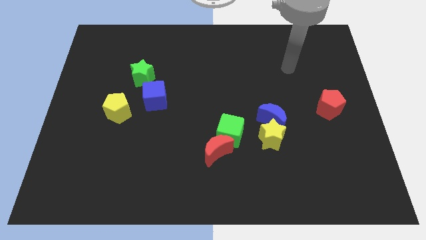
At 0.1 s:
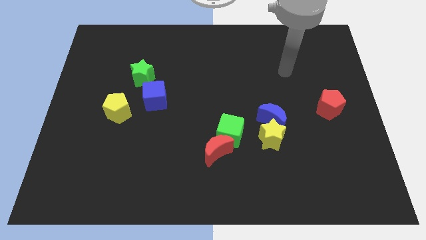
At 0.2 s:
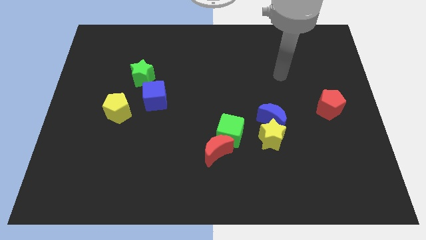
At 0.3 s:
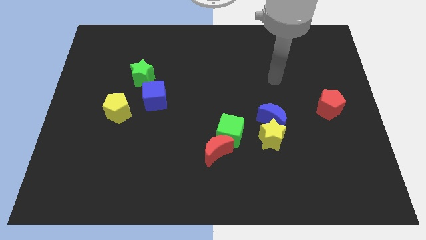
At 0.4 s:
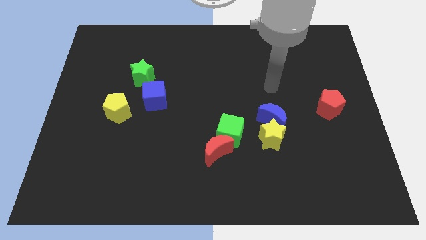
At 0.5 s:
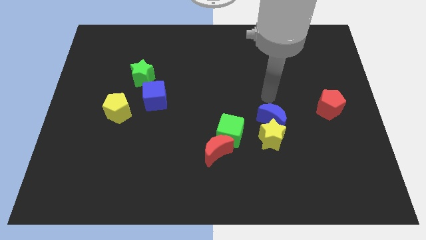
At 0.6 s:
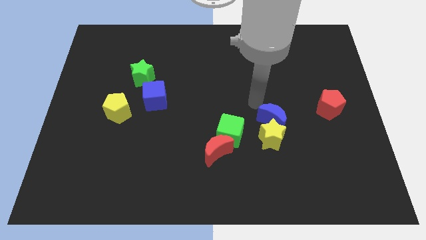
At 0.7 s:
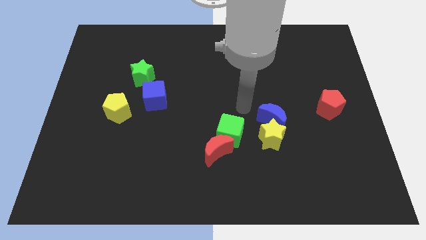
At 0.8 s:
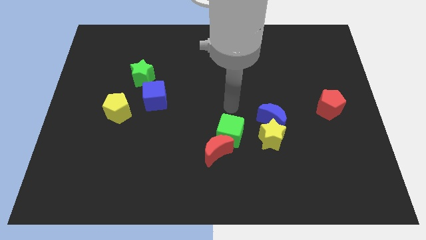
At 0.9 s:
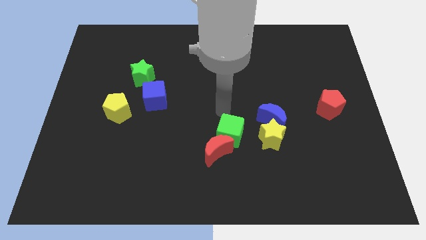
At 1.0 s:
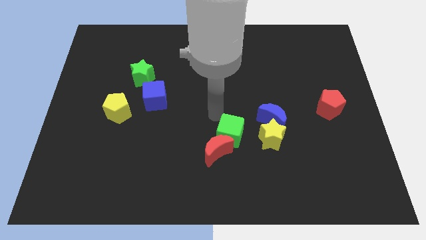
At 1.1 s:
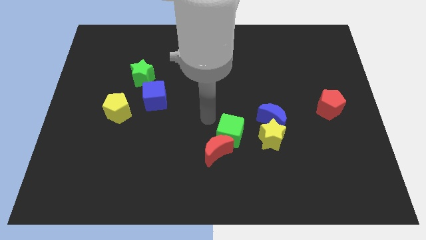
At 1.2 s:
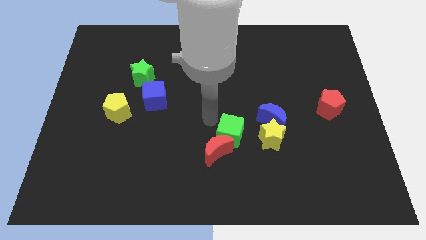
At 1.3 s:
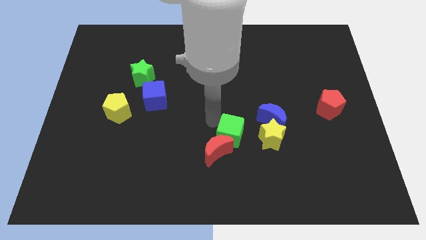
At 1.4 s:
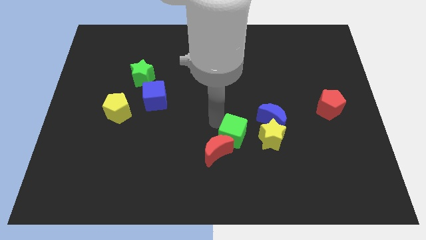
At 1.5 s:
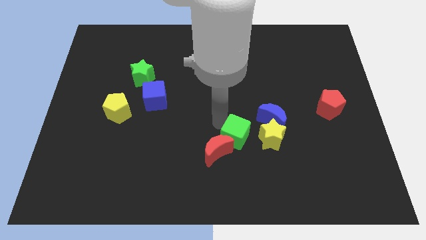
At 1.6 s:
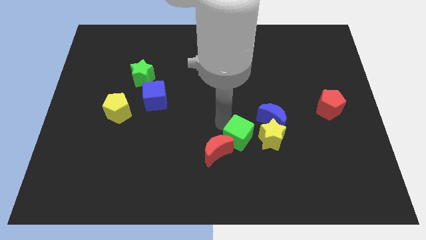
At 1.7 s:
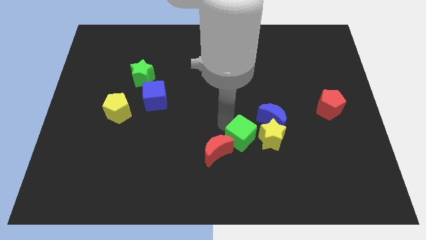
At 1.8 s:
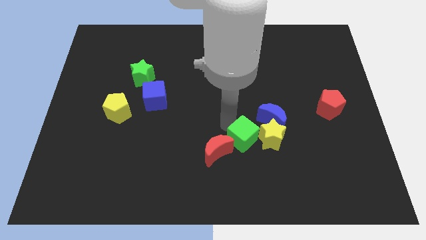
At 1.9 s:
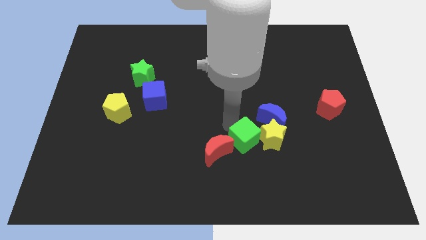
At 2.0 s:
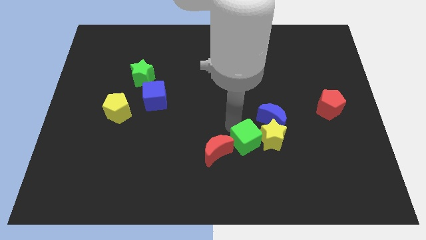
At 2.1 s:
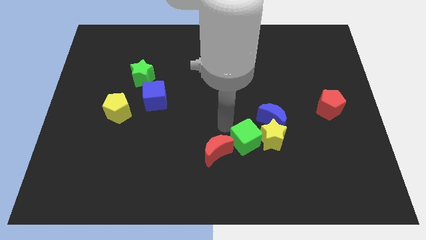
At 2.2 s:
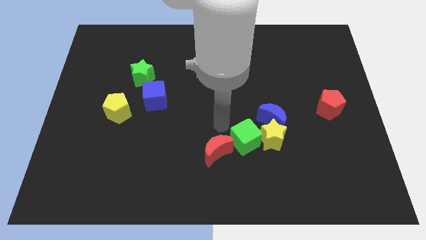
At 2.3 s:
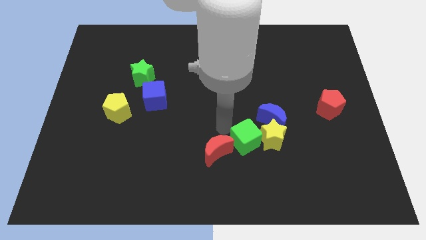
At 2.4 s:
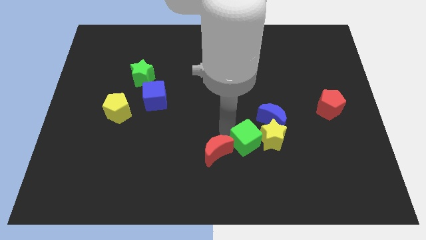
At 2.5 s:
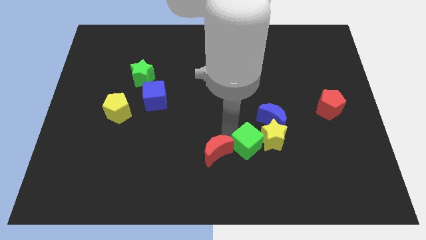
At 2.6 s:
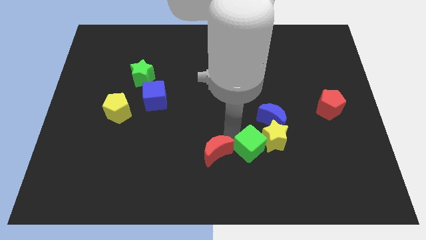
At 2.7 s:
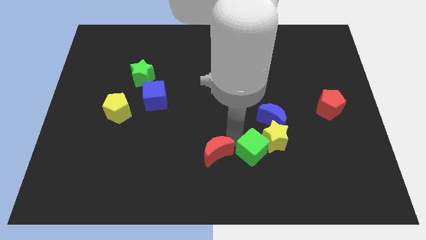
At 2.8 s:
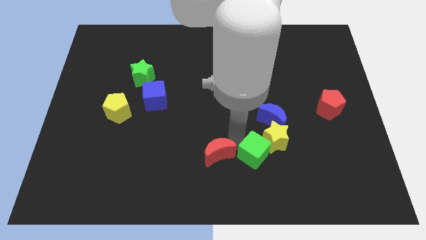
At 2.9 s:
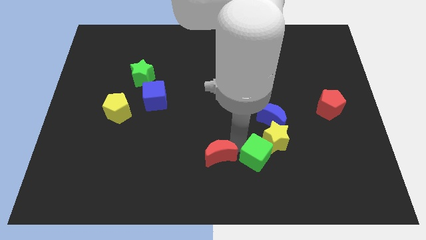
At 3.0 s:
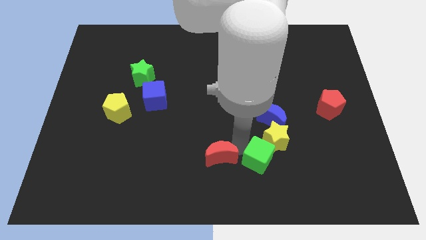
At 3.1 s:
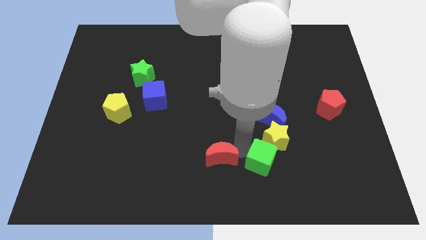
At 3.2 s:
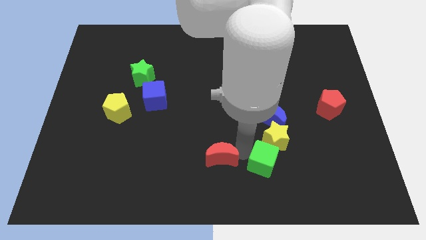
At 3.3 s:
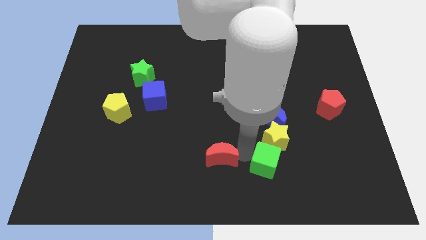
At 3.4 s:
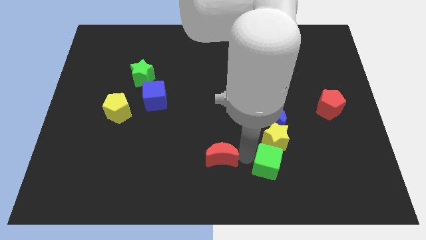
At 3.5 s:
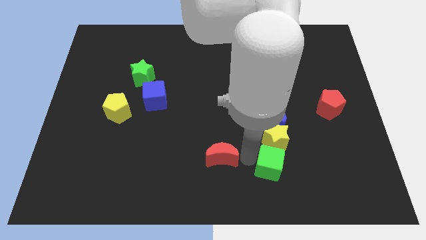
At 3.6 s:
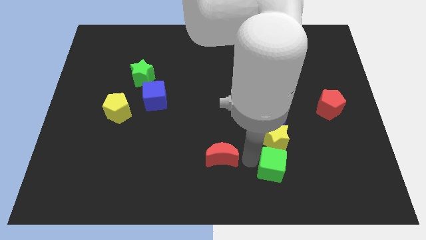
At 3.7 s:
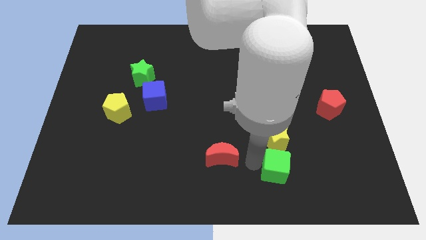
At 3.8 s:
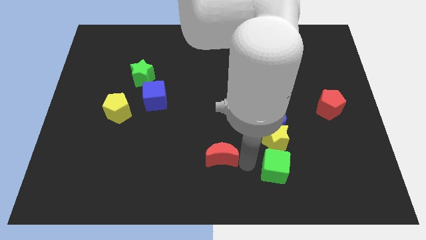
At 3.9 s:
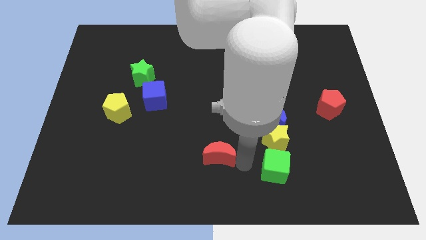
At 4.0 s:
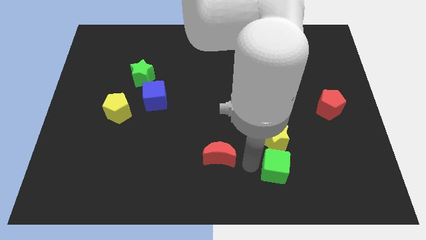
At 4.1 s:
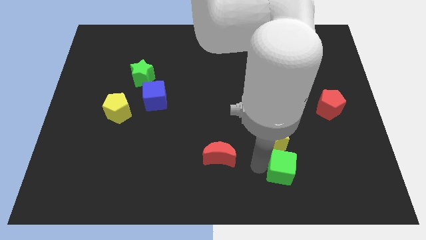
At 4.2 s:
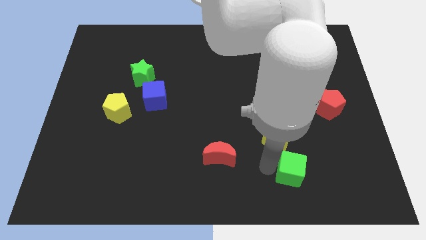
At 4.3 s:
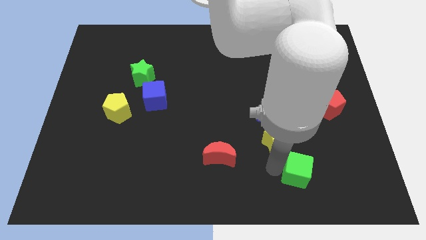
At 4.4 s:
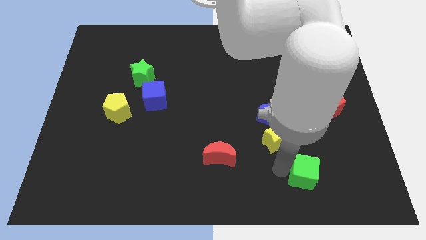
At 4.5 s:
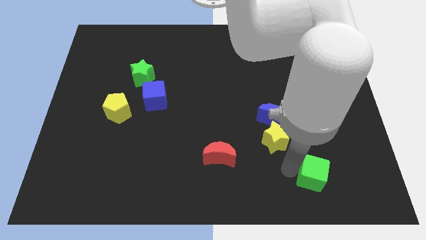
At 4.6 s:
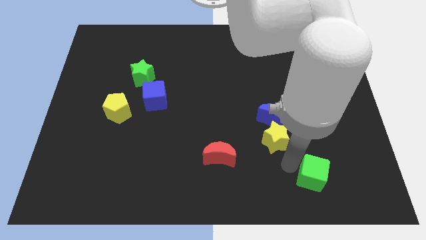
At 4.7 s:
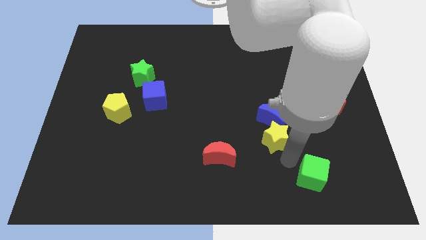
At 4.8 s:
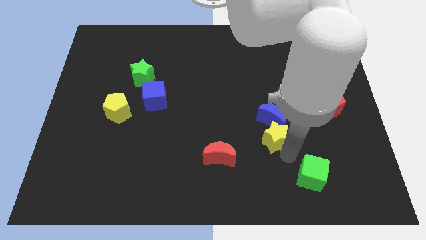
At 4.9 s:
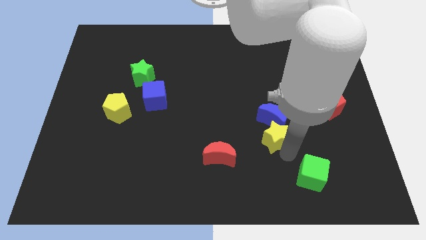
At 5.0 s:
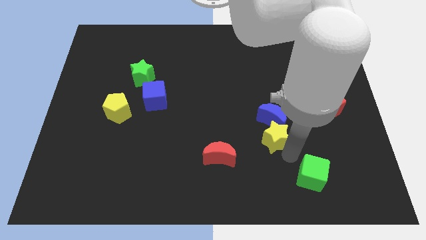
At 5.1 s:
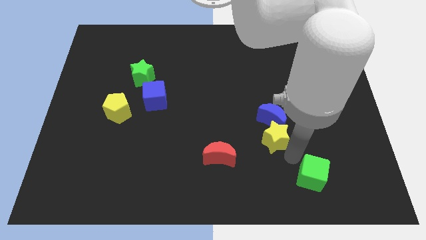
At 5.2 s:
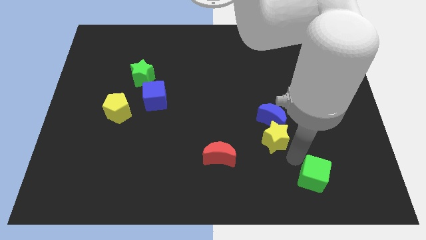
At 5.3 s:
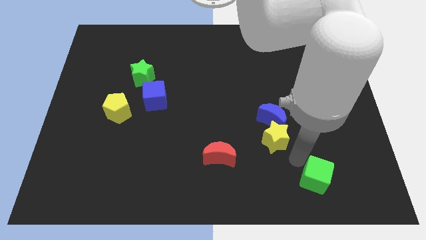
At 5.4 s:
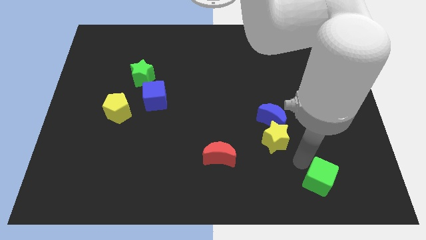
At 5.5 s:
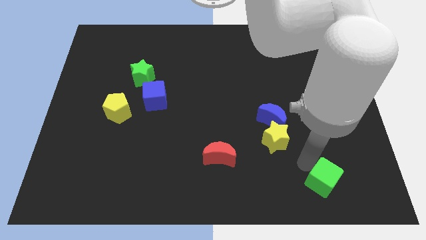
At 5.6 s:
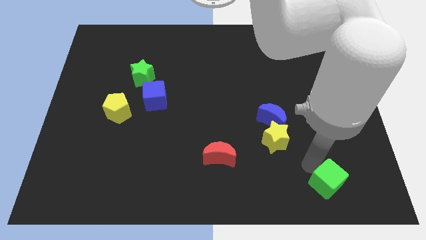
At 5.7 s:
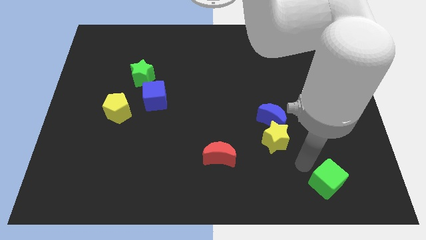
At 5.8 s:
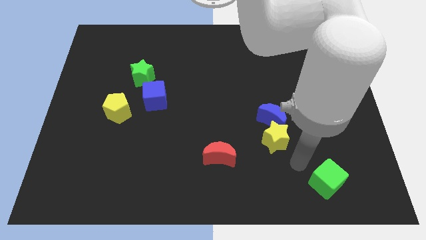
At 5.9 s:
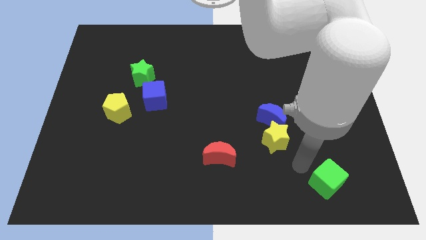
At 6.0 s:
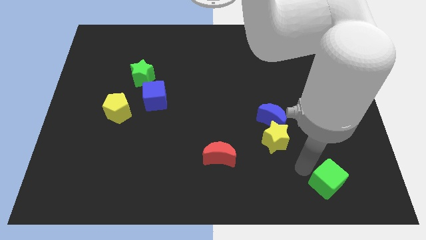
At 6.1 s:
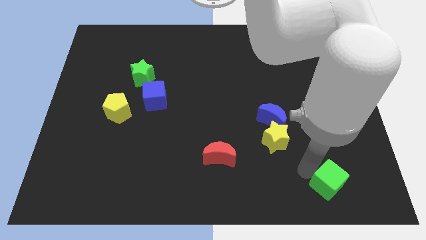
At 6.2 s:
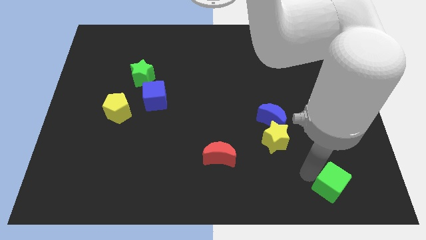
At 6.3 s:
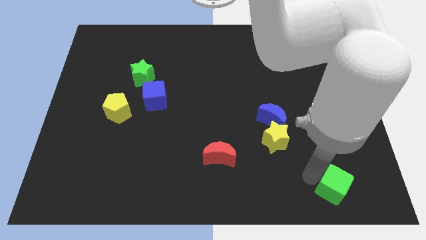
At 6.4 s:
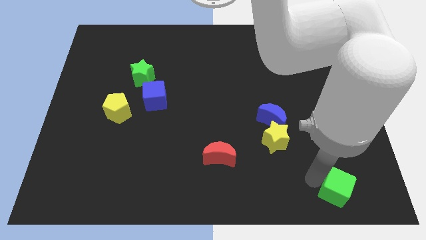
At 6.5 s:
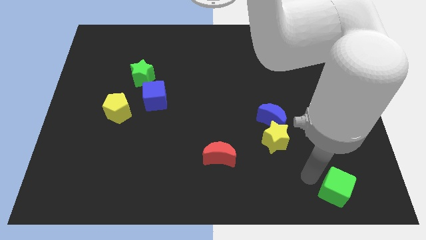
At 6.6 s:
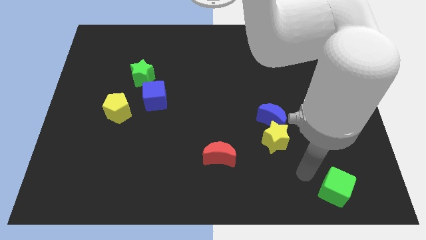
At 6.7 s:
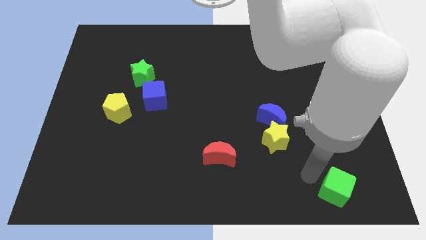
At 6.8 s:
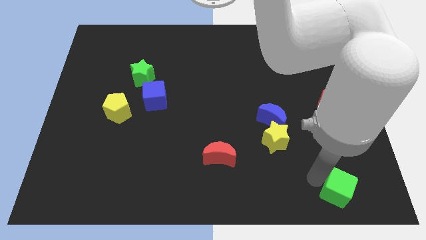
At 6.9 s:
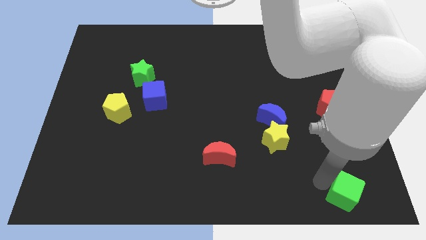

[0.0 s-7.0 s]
move the green cube to the bottom right
